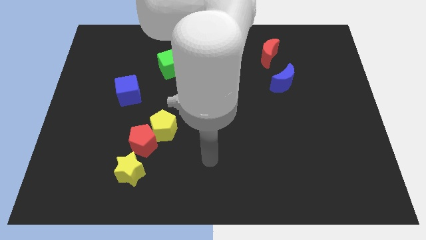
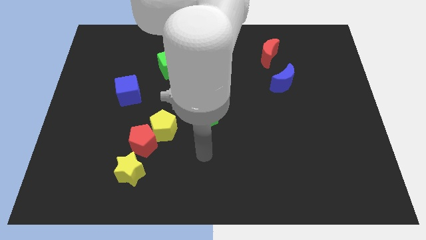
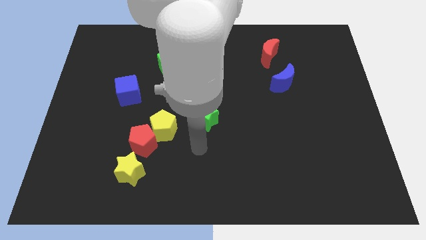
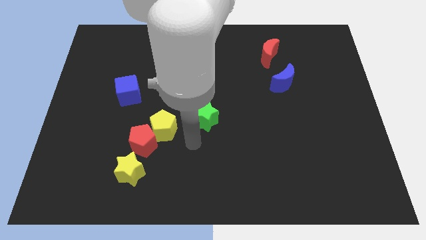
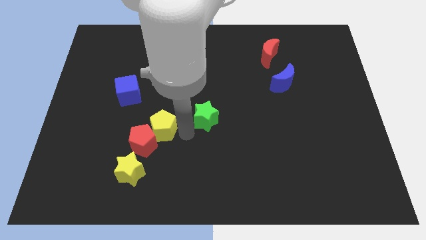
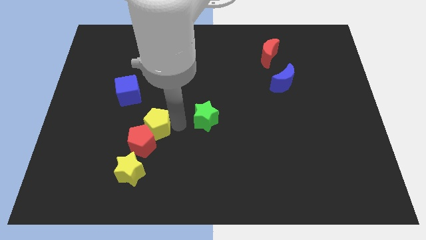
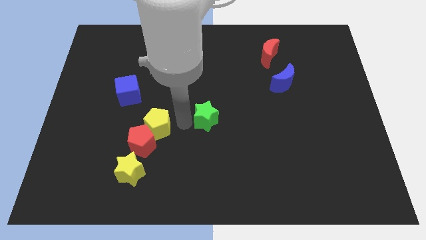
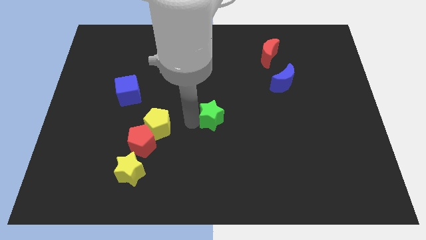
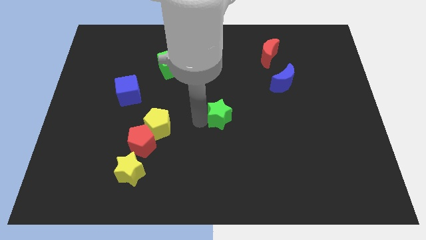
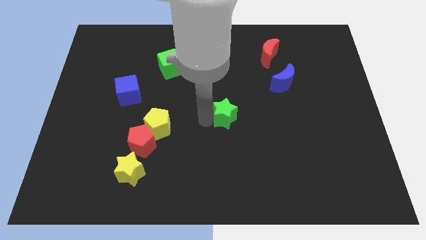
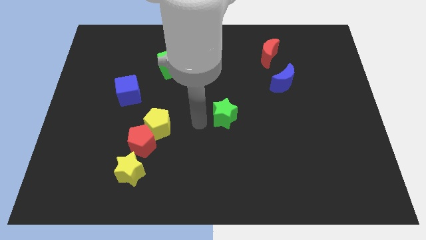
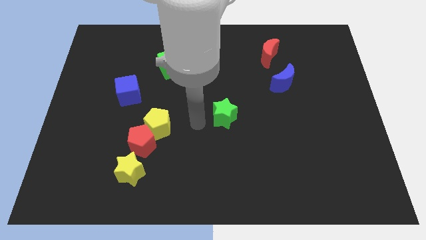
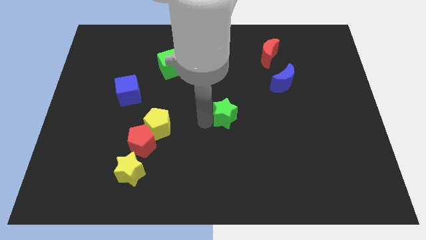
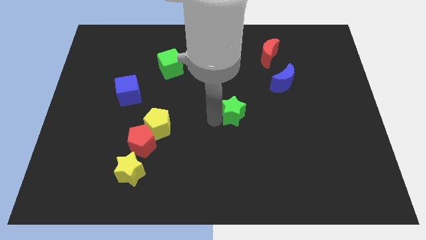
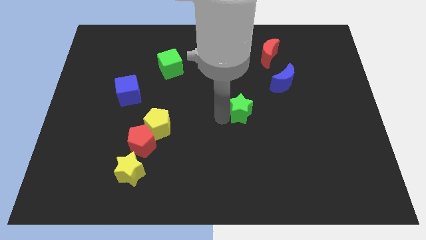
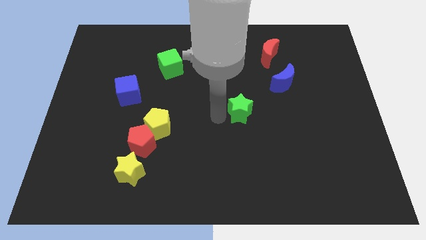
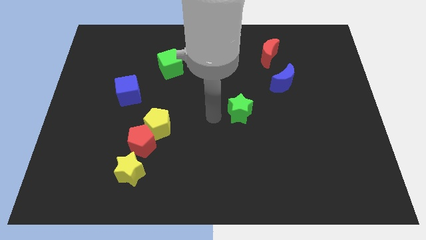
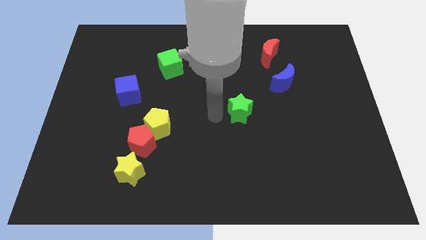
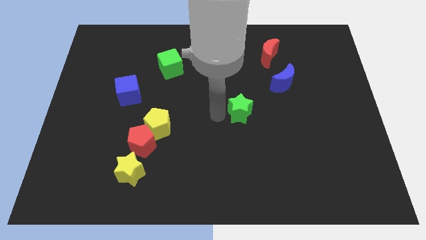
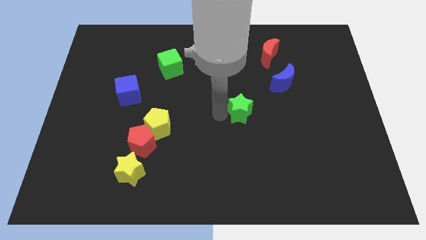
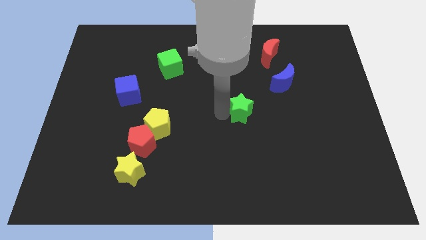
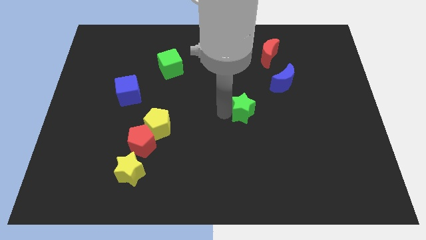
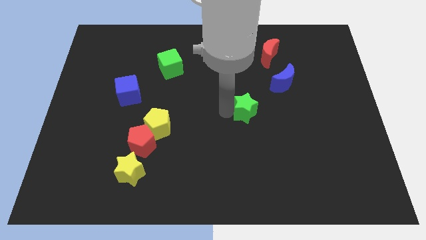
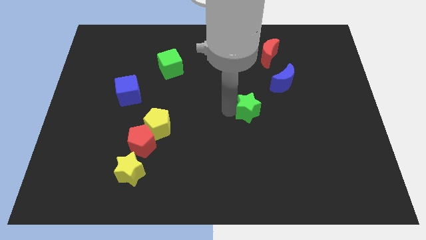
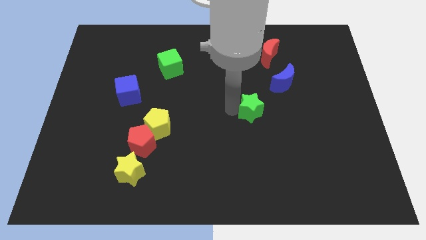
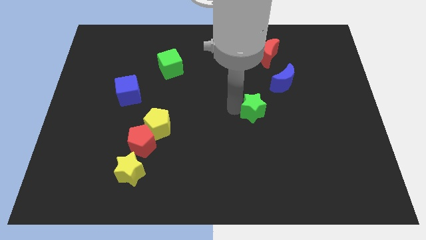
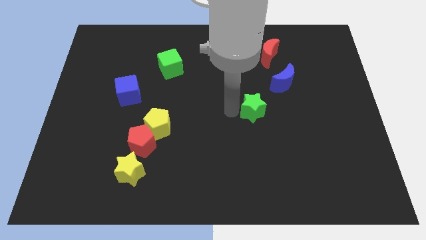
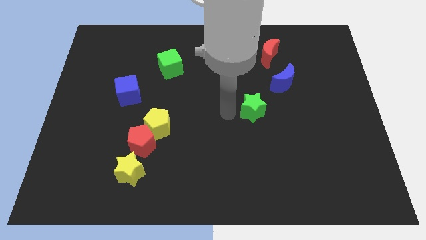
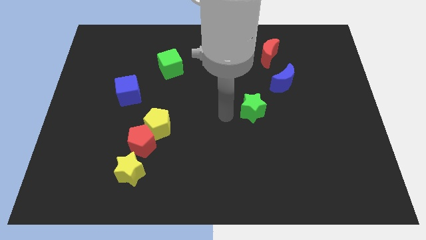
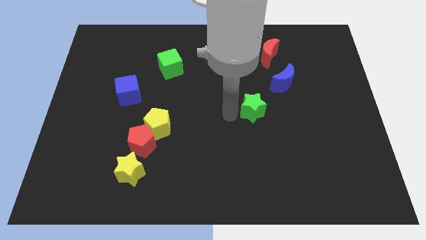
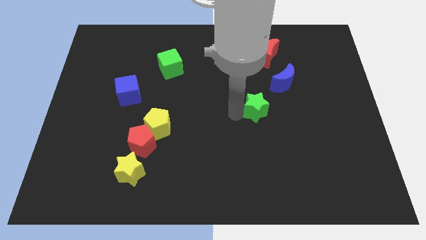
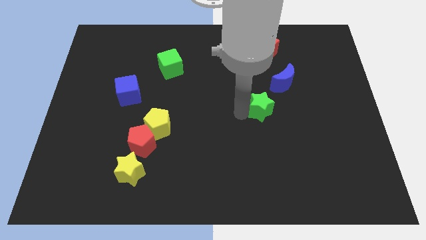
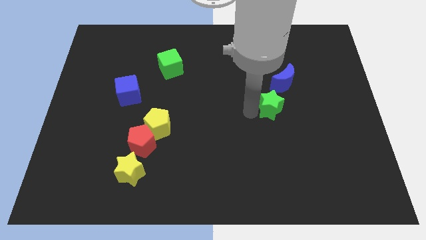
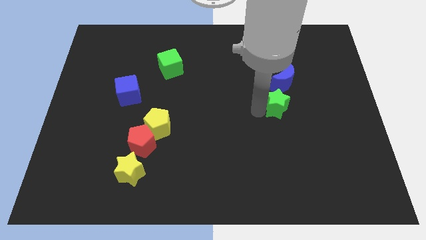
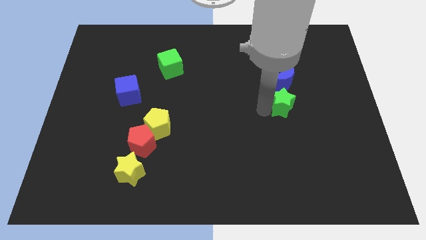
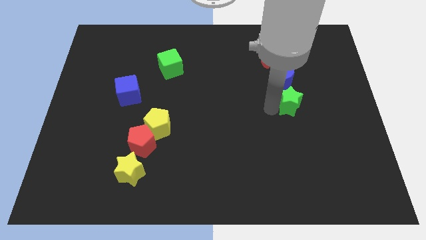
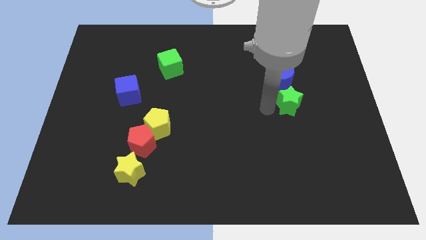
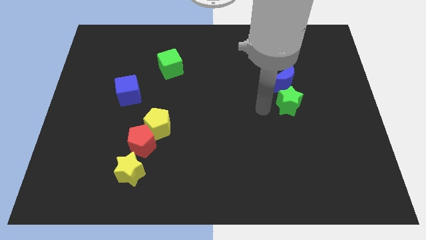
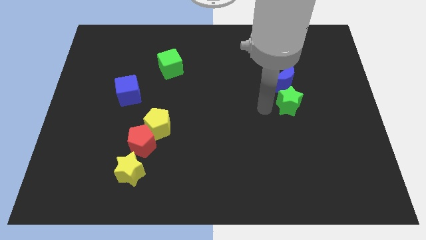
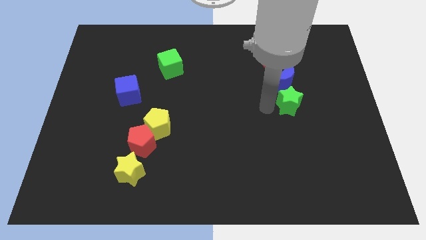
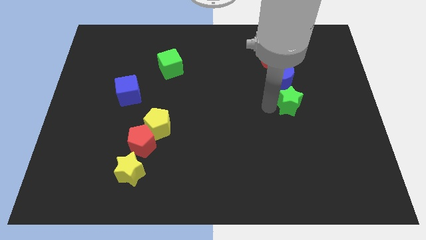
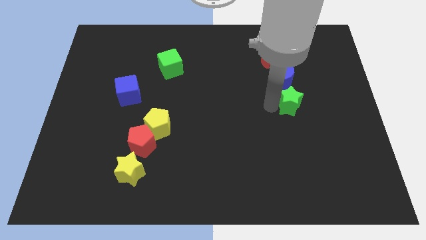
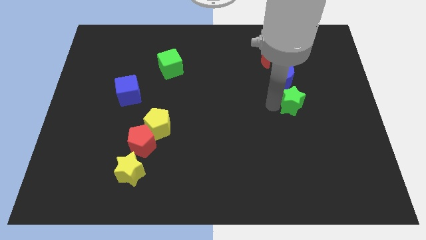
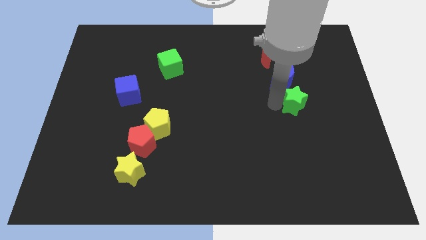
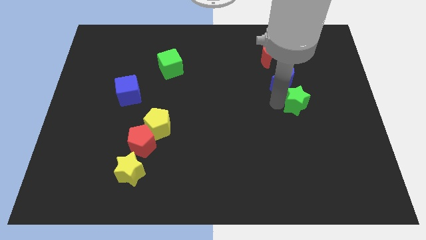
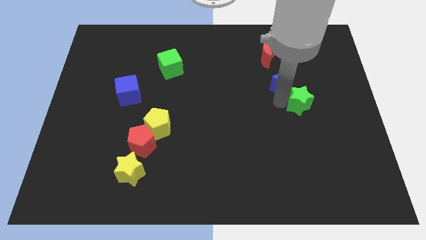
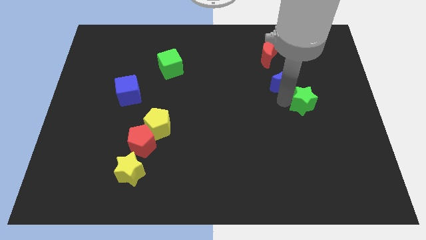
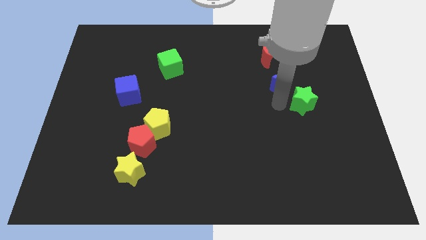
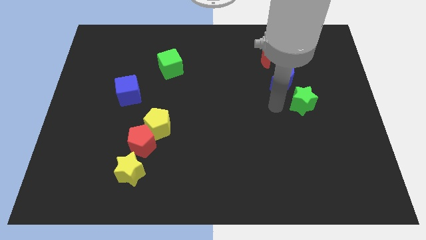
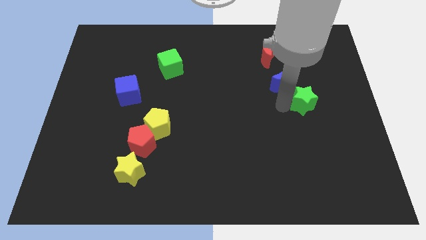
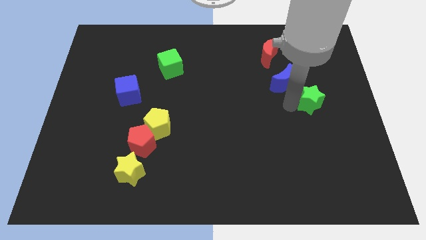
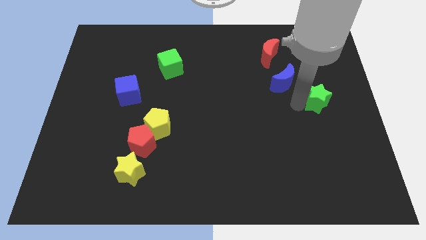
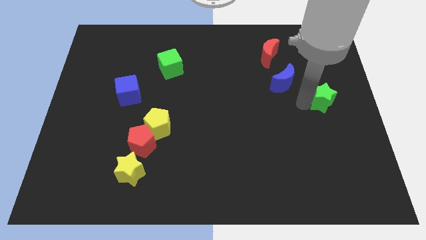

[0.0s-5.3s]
slide the green star to the center right

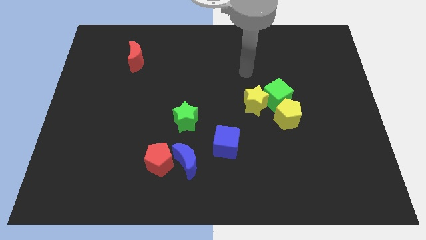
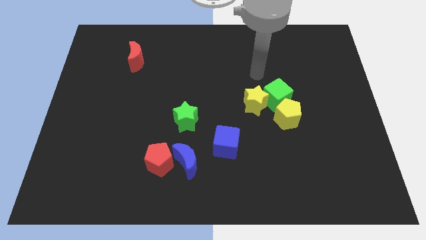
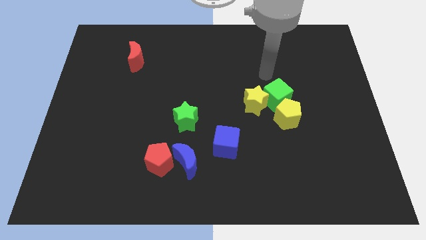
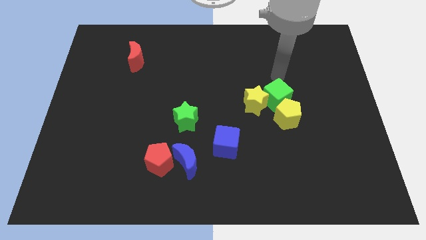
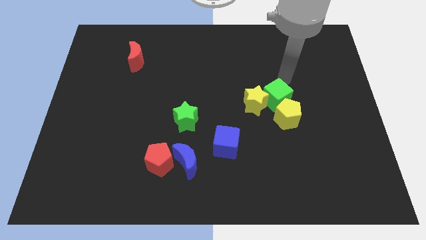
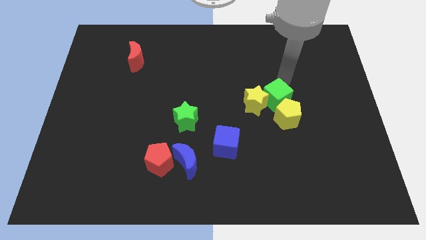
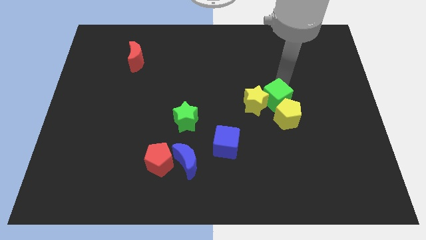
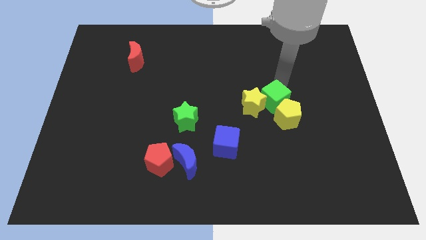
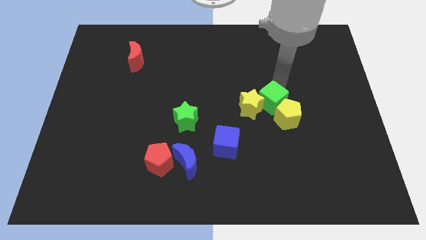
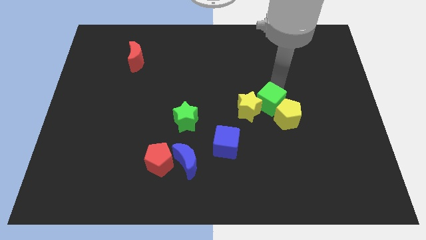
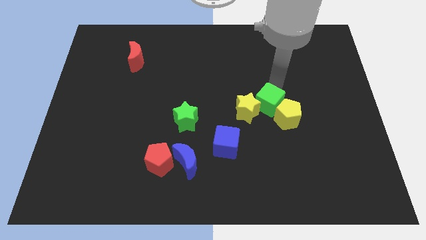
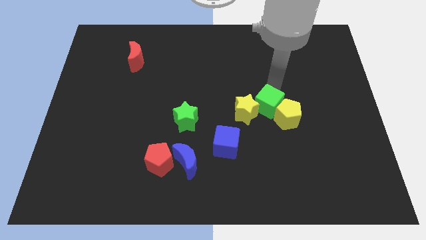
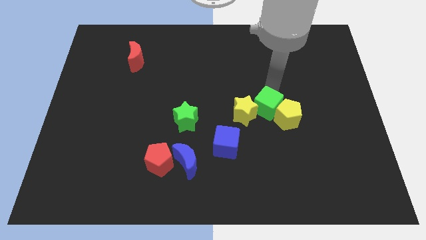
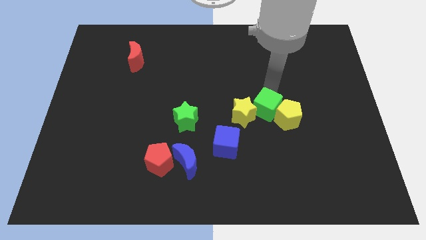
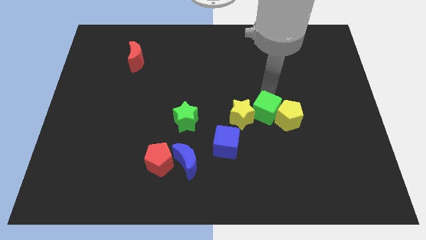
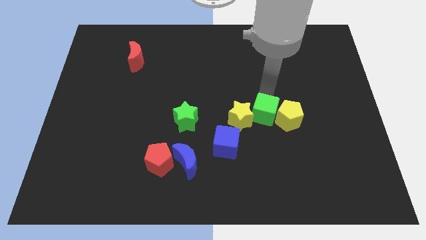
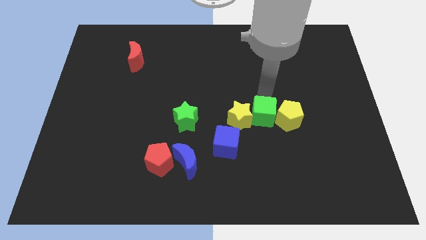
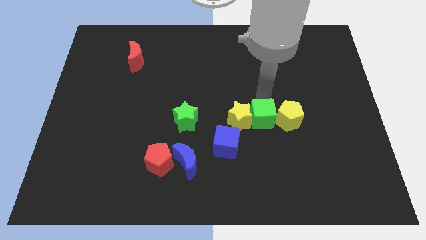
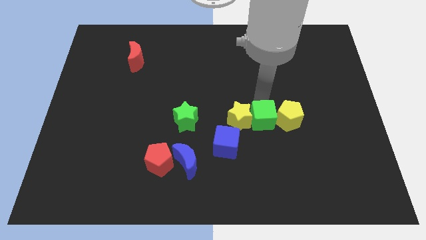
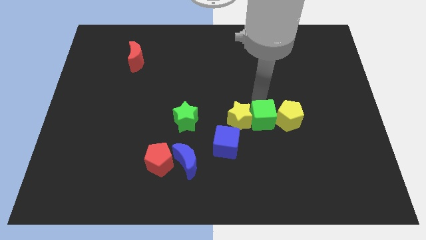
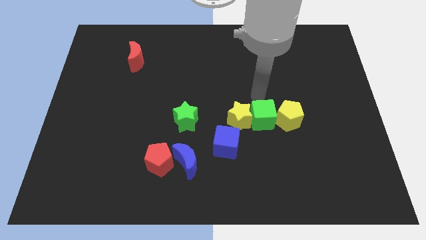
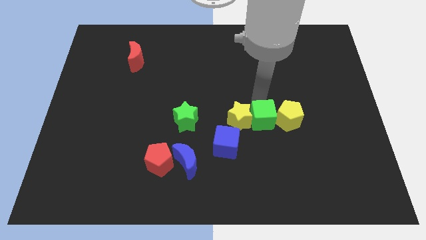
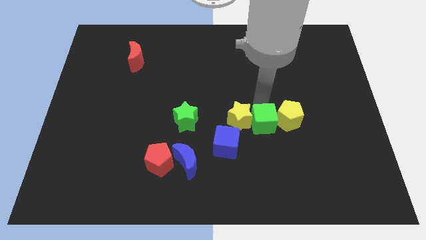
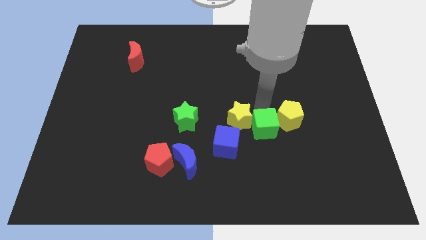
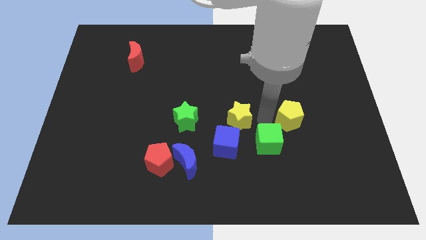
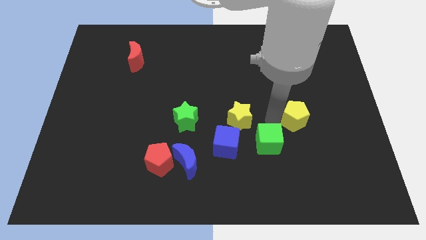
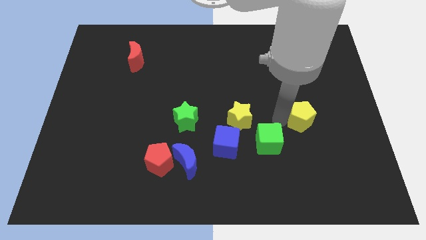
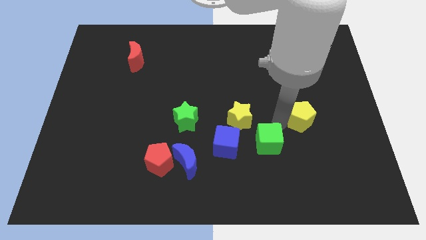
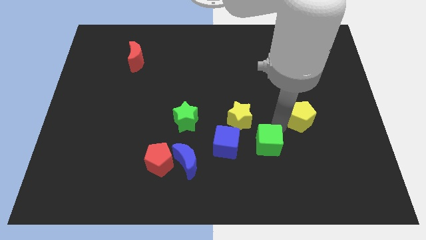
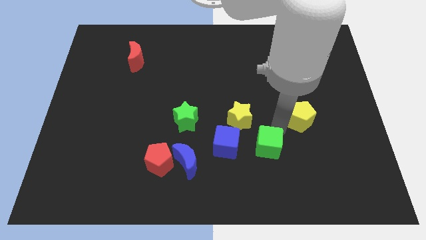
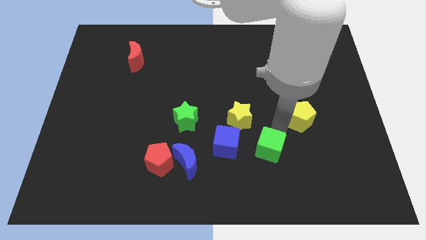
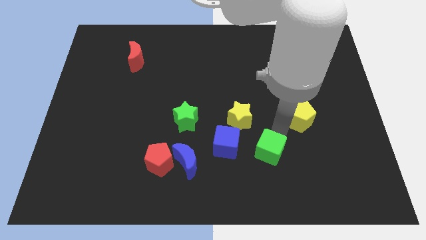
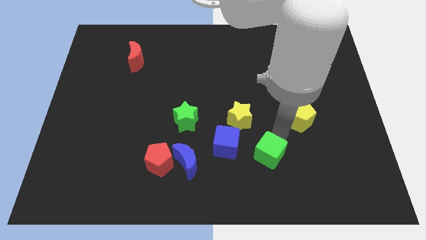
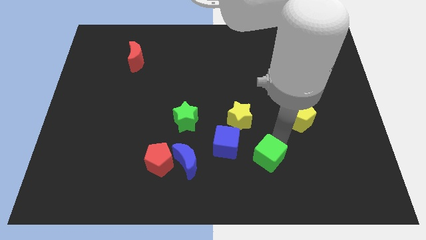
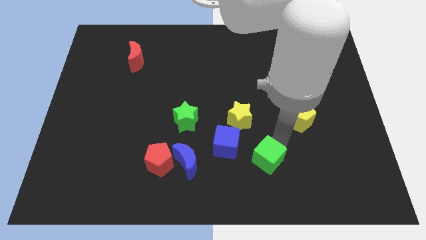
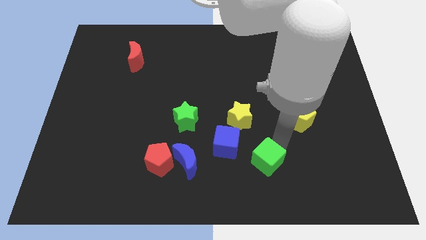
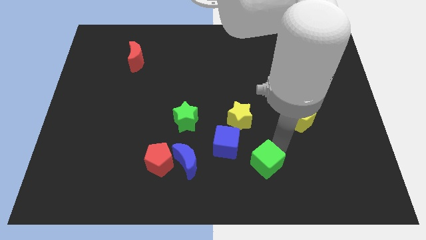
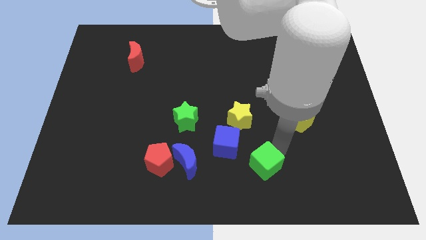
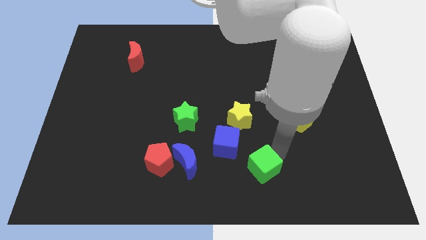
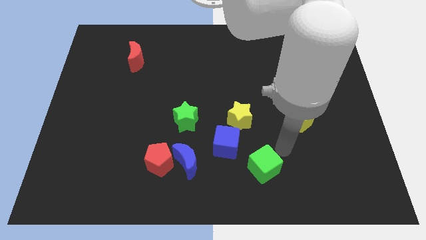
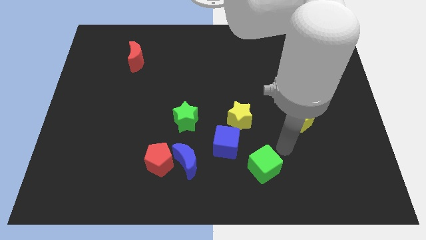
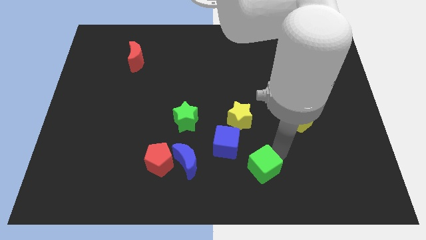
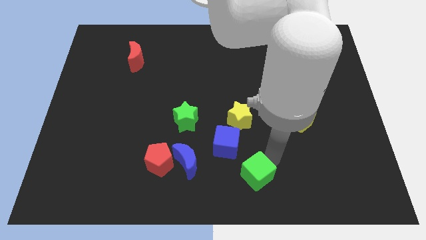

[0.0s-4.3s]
move the green cube to the bottom
